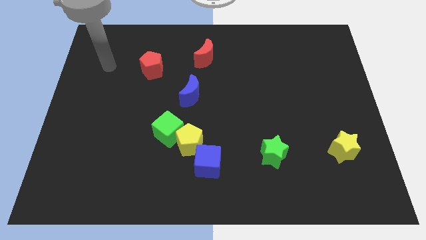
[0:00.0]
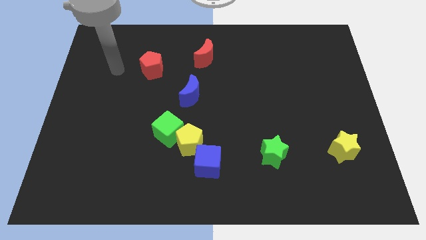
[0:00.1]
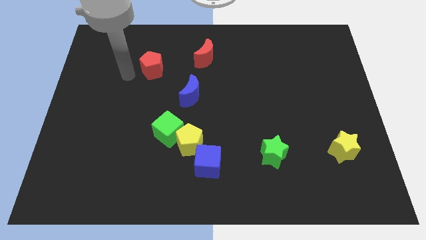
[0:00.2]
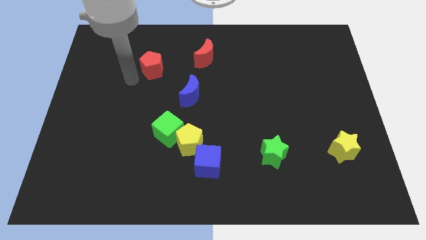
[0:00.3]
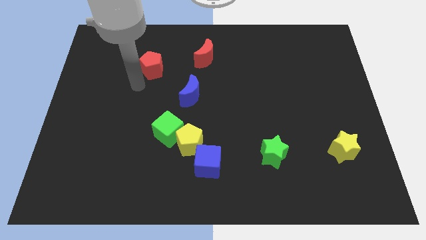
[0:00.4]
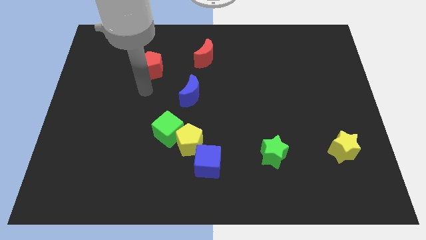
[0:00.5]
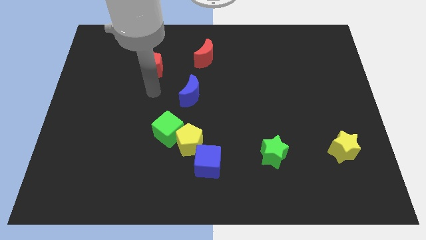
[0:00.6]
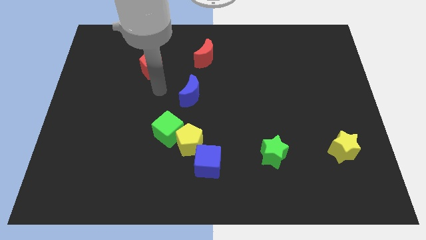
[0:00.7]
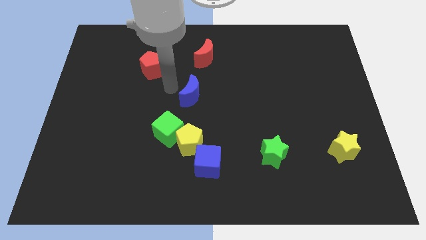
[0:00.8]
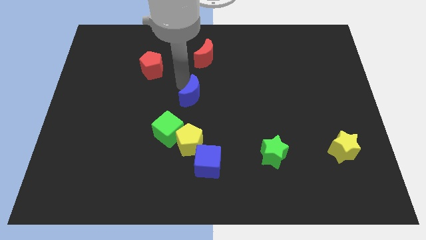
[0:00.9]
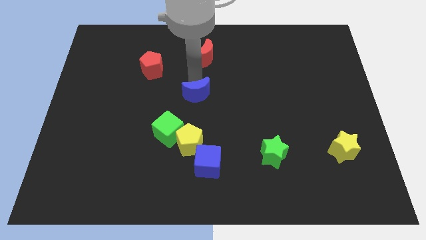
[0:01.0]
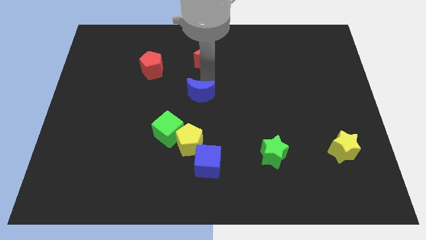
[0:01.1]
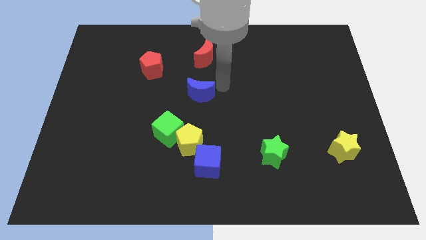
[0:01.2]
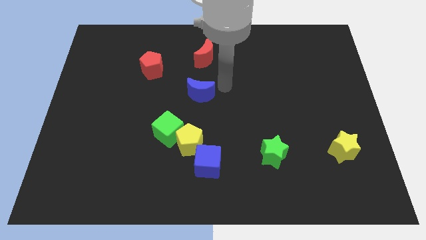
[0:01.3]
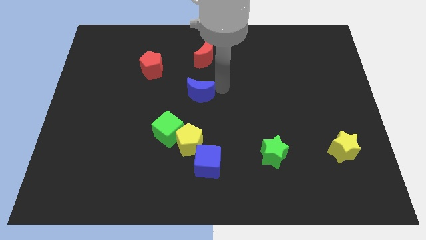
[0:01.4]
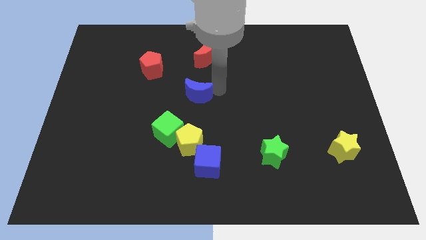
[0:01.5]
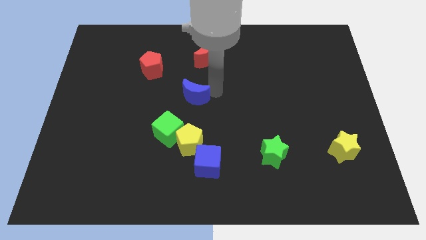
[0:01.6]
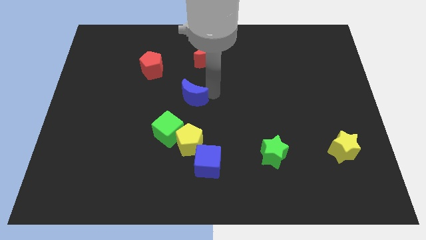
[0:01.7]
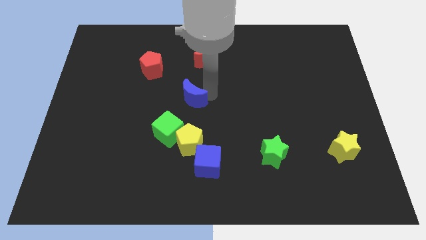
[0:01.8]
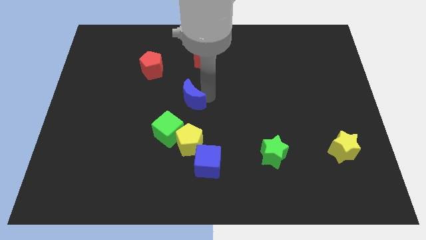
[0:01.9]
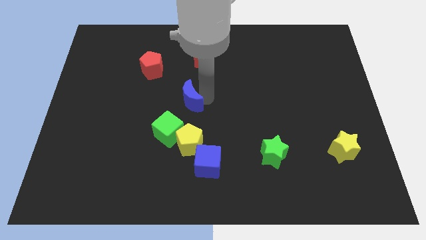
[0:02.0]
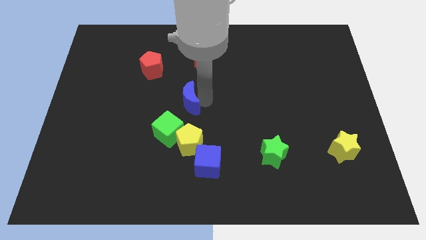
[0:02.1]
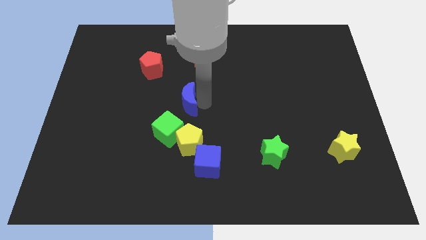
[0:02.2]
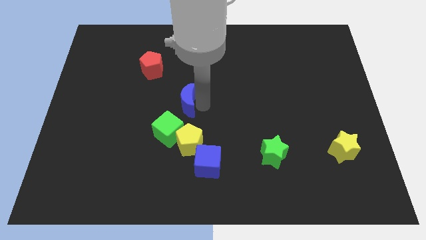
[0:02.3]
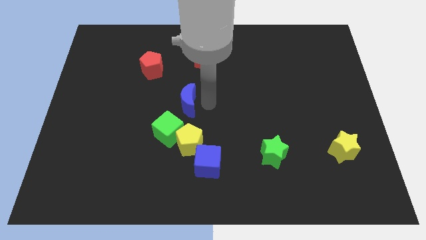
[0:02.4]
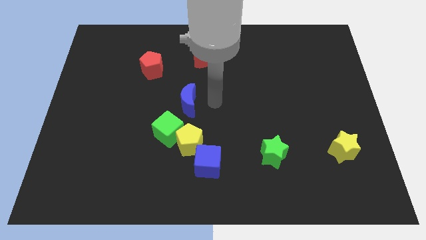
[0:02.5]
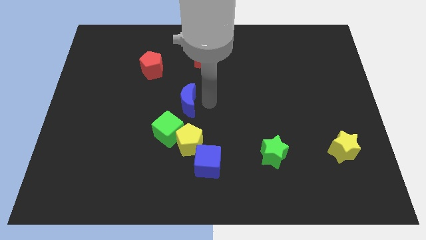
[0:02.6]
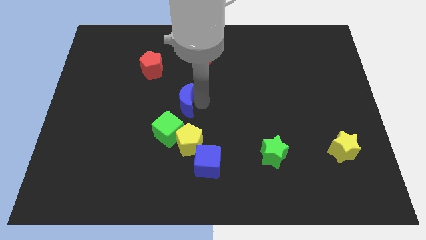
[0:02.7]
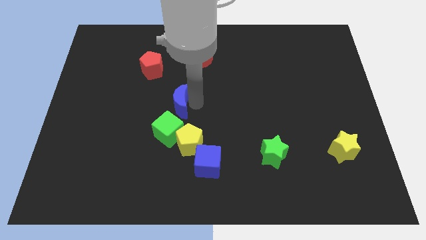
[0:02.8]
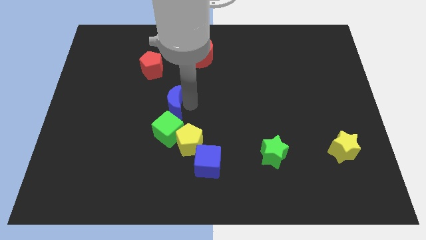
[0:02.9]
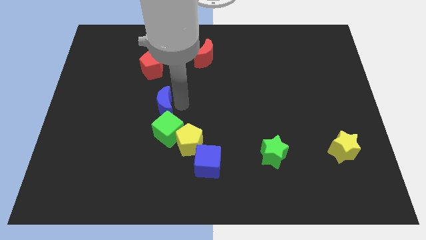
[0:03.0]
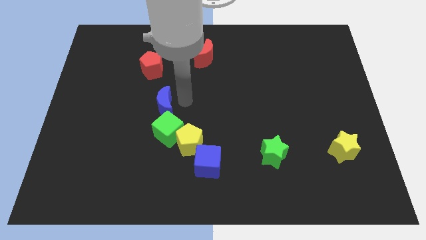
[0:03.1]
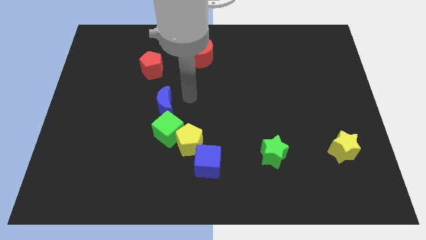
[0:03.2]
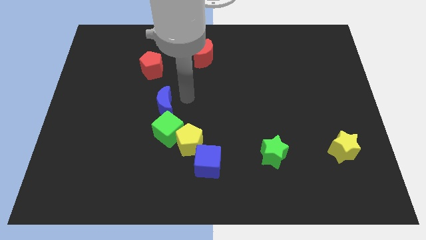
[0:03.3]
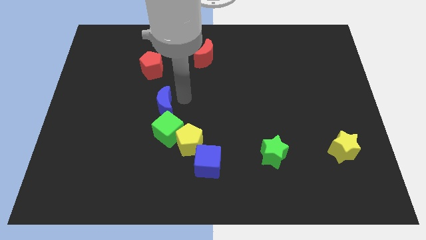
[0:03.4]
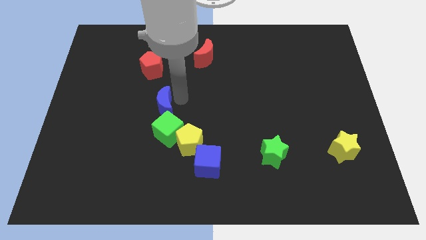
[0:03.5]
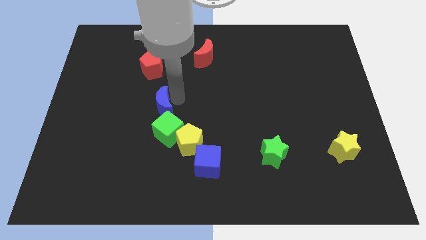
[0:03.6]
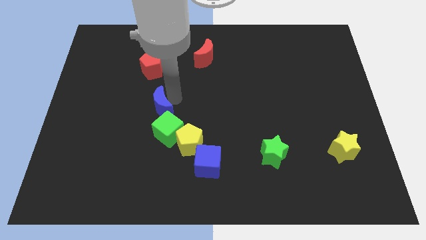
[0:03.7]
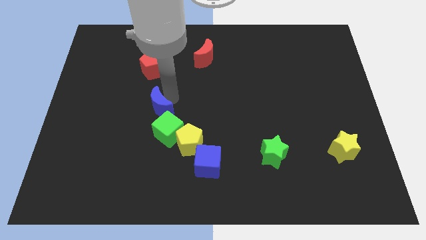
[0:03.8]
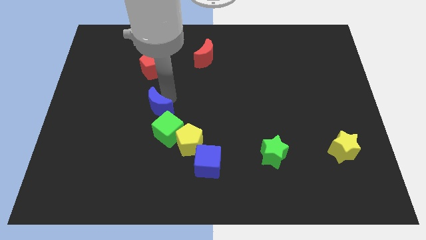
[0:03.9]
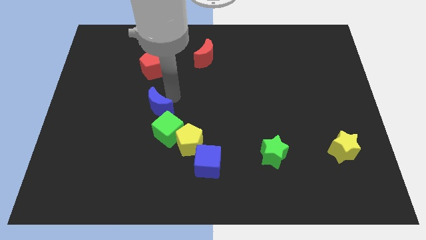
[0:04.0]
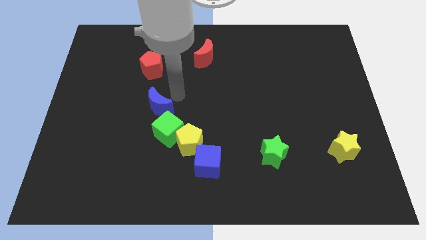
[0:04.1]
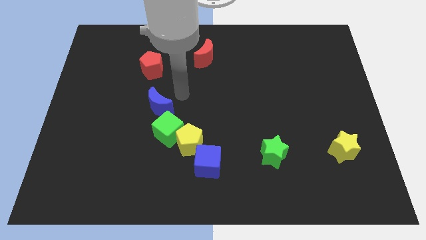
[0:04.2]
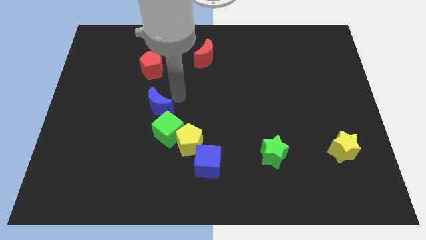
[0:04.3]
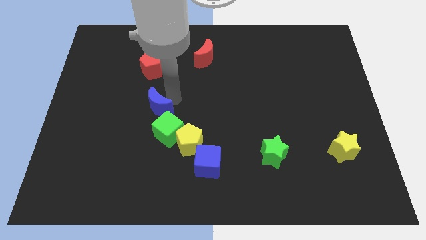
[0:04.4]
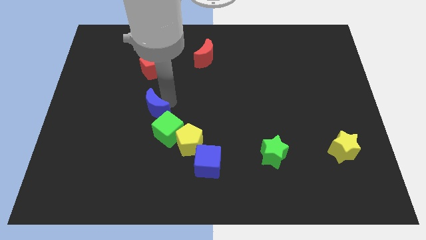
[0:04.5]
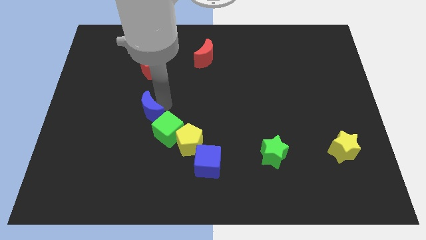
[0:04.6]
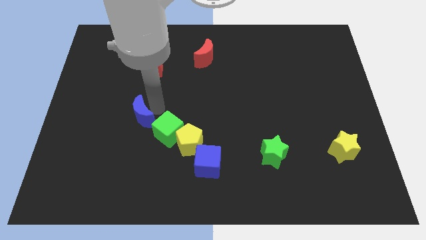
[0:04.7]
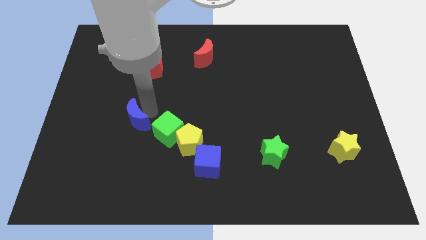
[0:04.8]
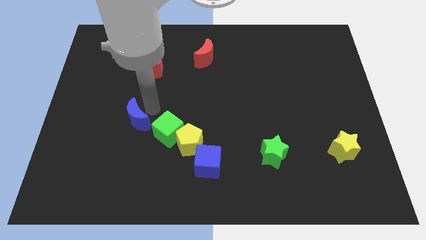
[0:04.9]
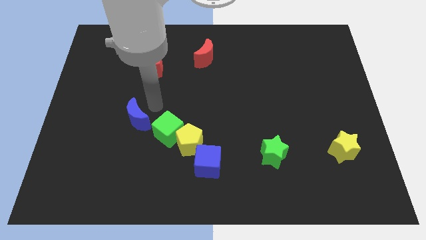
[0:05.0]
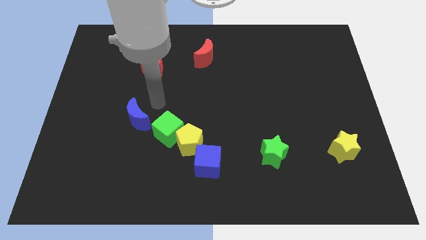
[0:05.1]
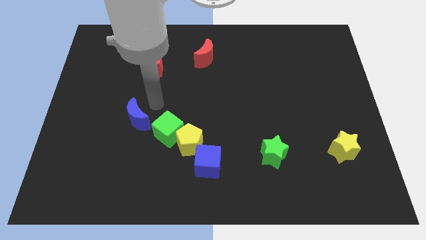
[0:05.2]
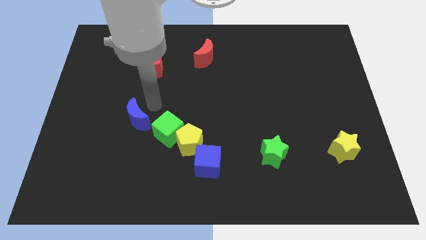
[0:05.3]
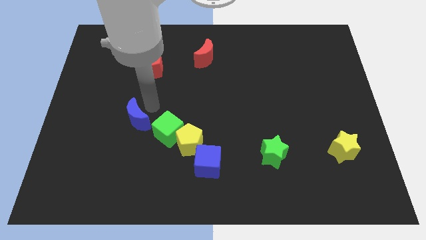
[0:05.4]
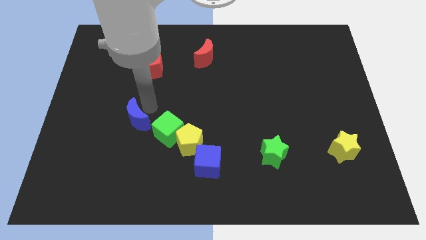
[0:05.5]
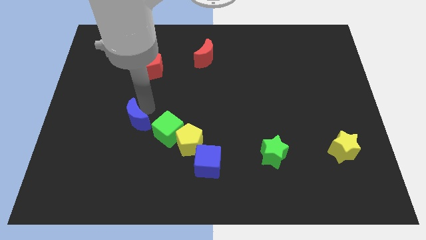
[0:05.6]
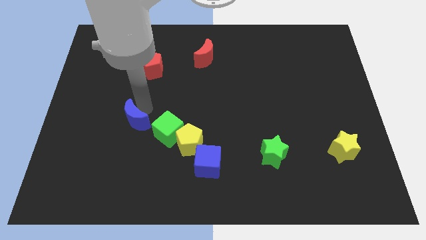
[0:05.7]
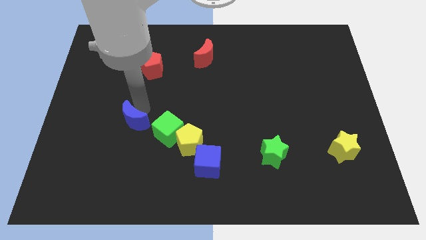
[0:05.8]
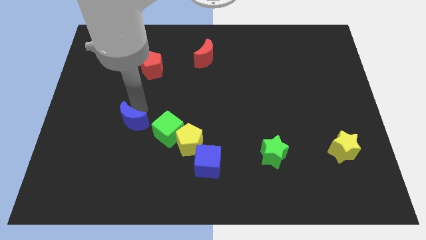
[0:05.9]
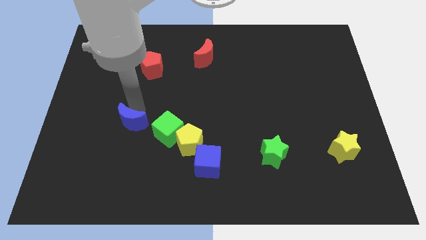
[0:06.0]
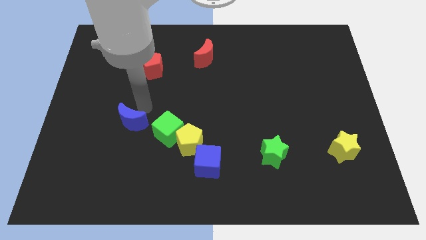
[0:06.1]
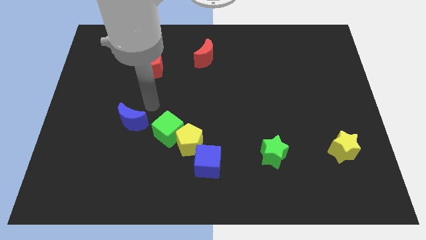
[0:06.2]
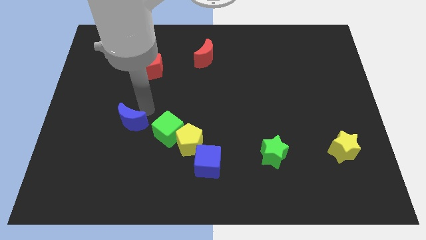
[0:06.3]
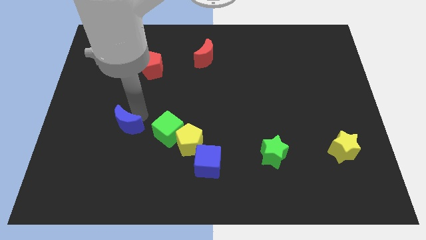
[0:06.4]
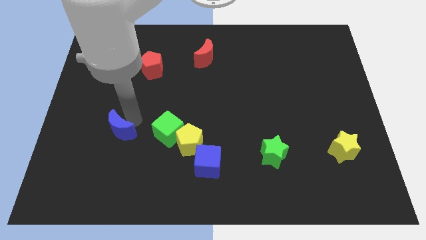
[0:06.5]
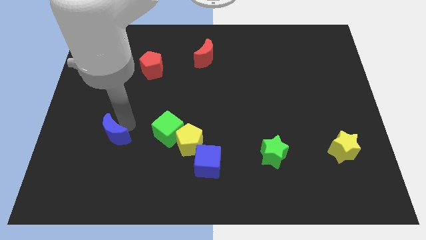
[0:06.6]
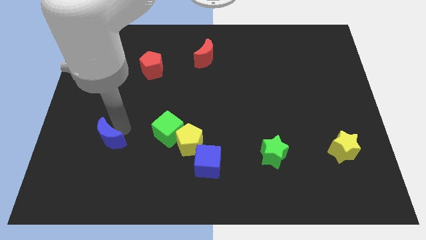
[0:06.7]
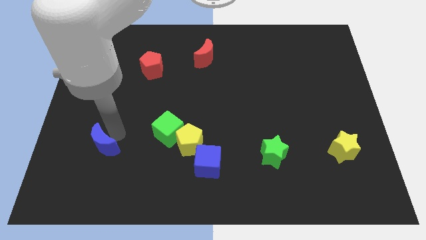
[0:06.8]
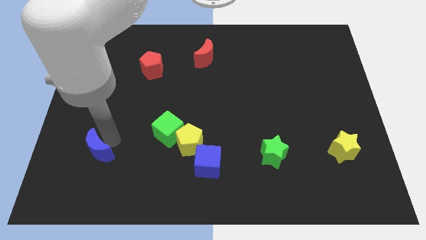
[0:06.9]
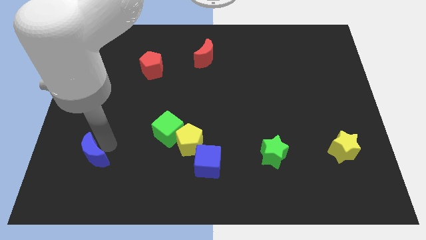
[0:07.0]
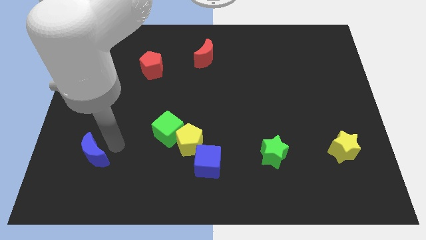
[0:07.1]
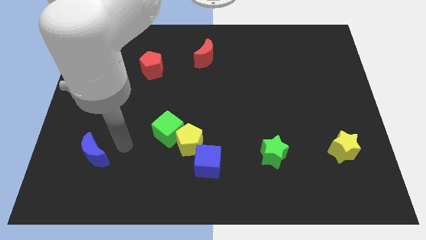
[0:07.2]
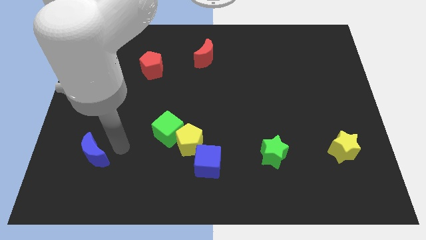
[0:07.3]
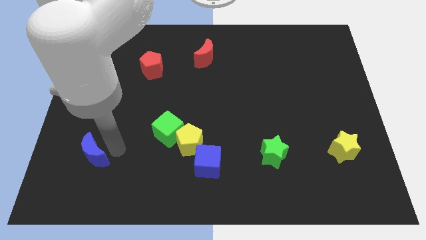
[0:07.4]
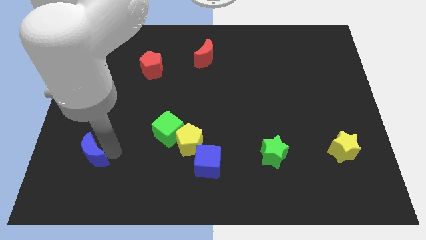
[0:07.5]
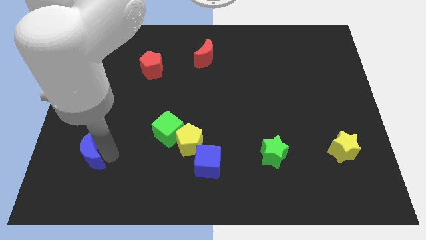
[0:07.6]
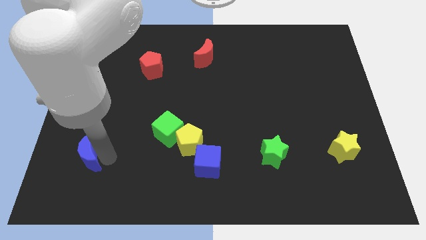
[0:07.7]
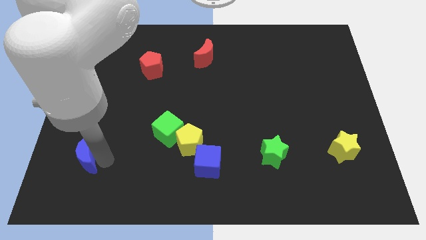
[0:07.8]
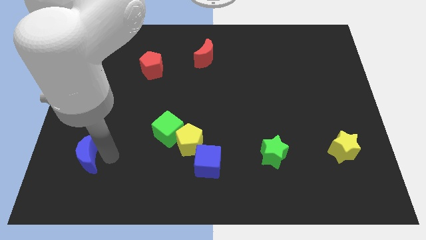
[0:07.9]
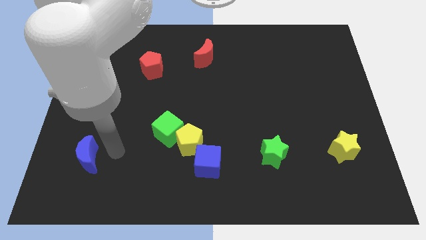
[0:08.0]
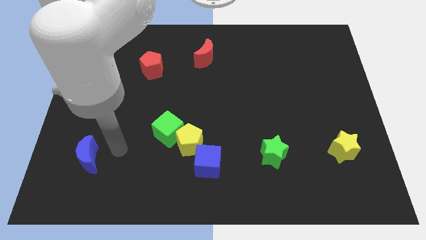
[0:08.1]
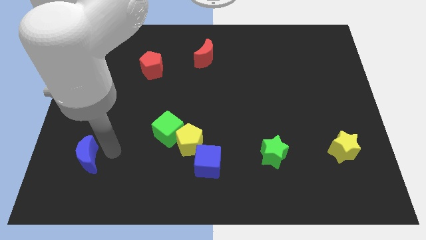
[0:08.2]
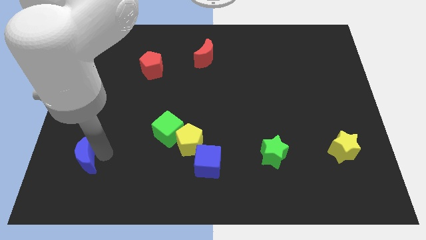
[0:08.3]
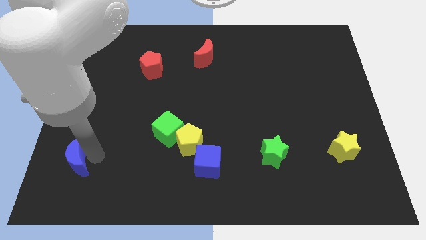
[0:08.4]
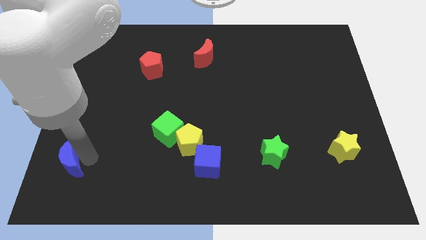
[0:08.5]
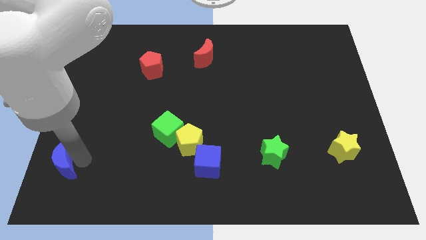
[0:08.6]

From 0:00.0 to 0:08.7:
slide the blue moon to the bottom left of the board
